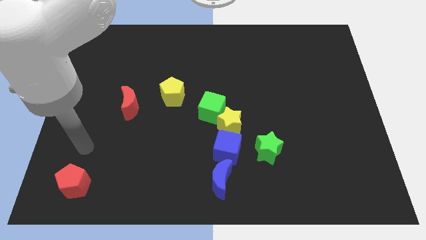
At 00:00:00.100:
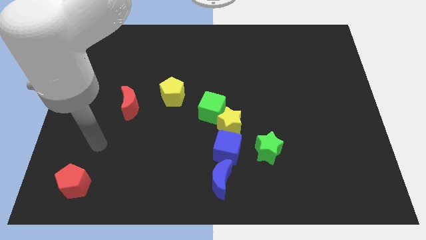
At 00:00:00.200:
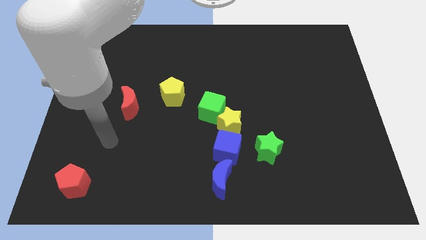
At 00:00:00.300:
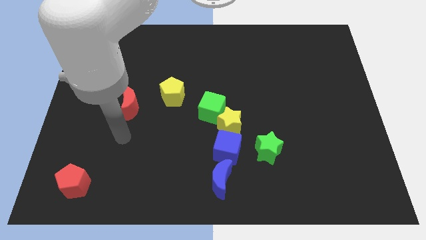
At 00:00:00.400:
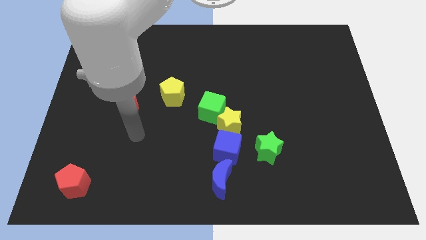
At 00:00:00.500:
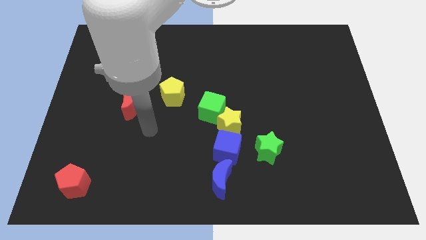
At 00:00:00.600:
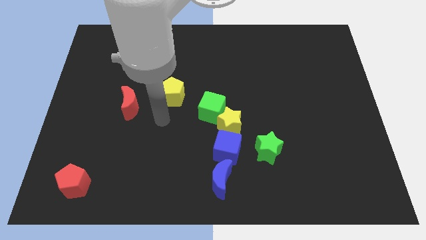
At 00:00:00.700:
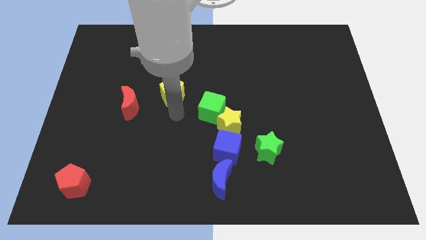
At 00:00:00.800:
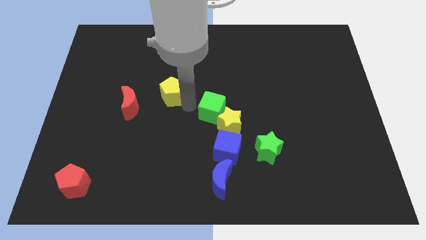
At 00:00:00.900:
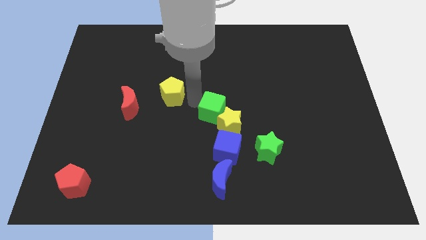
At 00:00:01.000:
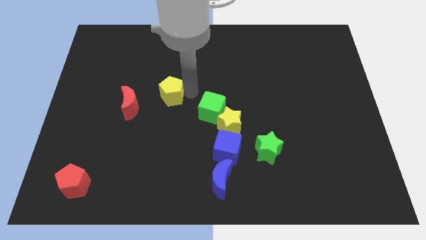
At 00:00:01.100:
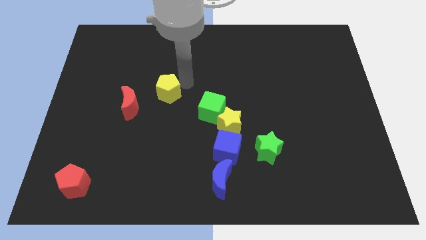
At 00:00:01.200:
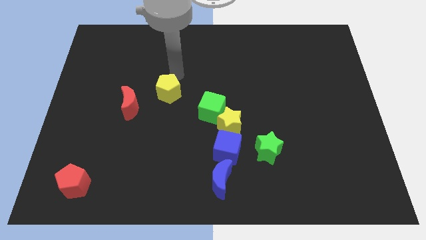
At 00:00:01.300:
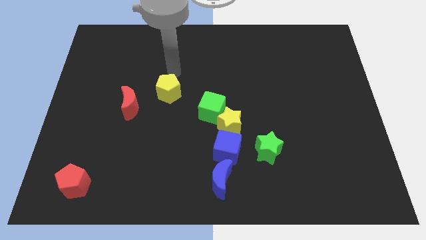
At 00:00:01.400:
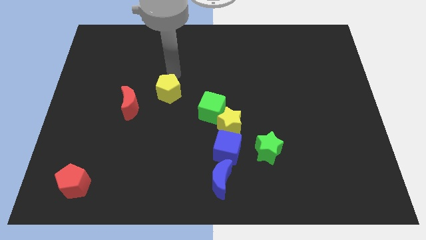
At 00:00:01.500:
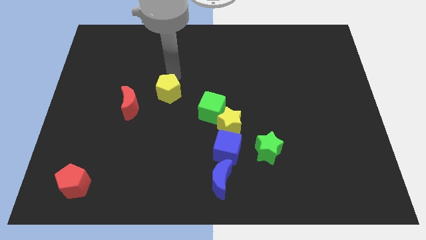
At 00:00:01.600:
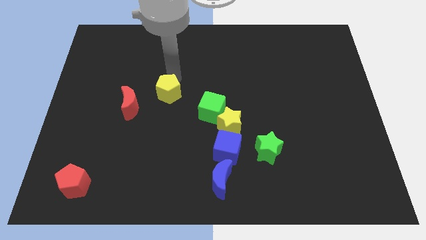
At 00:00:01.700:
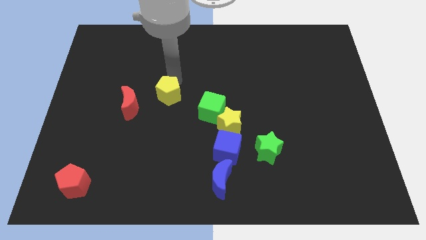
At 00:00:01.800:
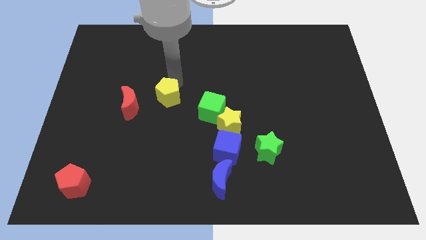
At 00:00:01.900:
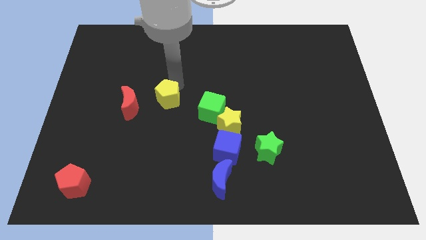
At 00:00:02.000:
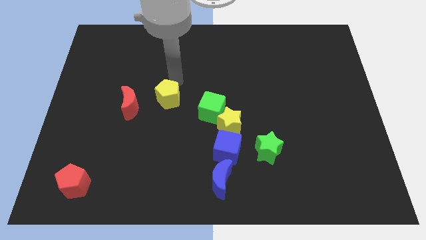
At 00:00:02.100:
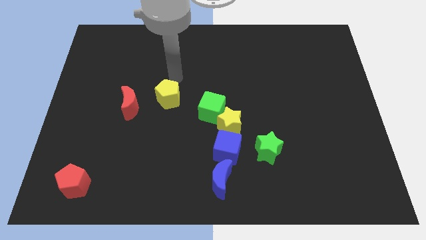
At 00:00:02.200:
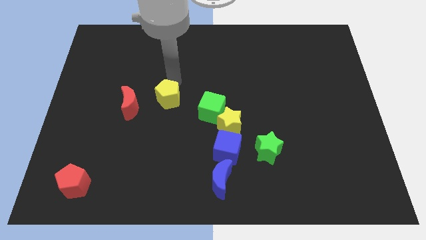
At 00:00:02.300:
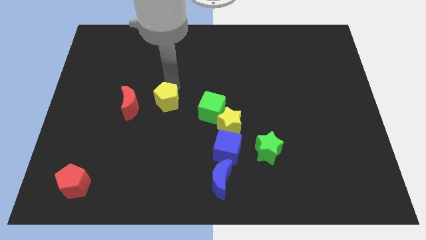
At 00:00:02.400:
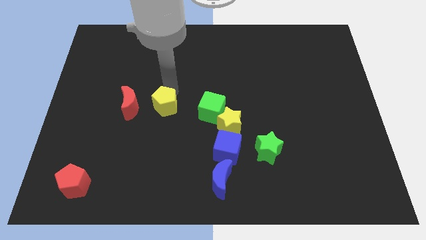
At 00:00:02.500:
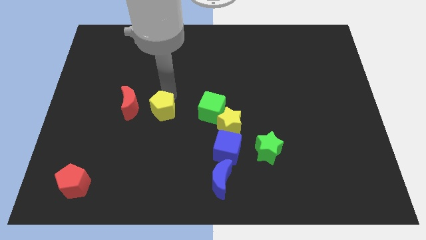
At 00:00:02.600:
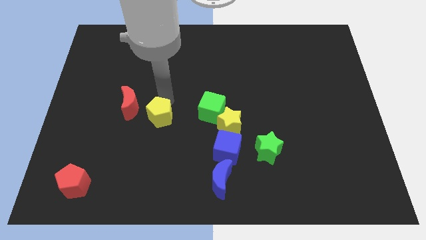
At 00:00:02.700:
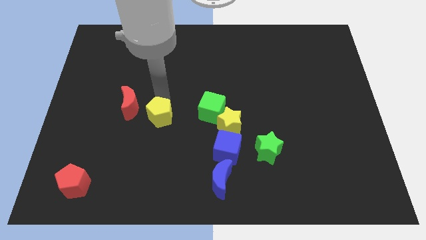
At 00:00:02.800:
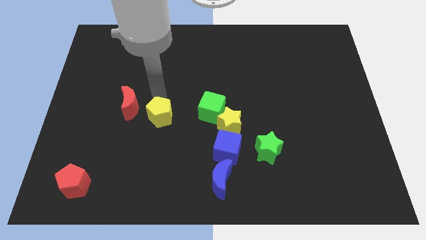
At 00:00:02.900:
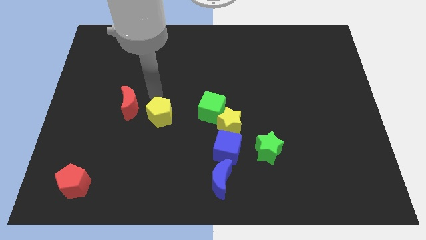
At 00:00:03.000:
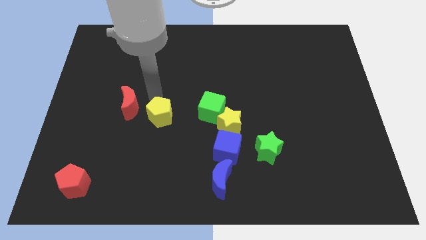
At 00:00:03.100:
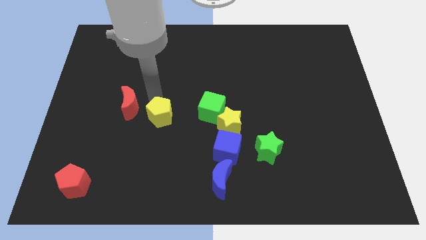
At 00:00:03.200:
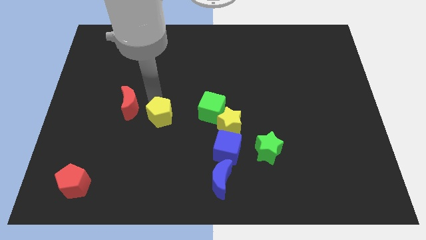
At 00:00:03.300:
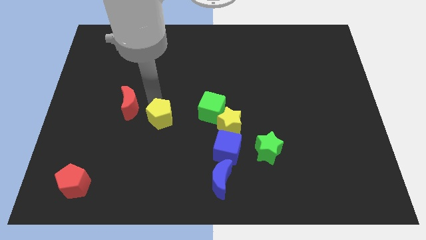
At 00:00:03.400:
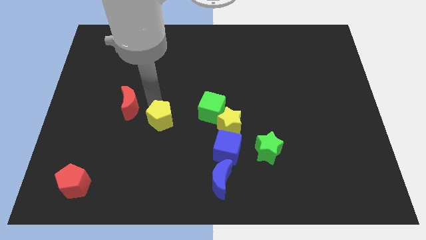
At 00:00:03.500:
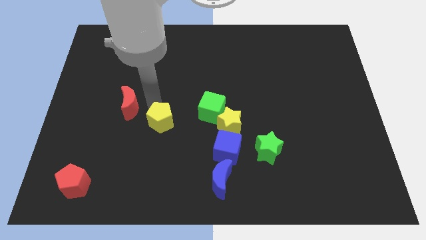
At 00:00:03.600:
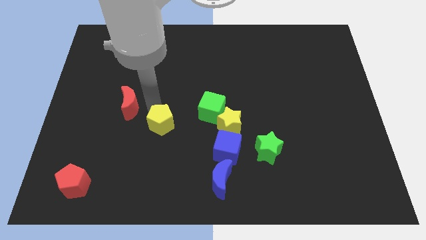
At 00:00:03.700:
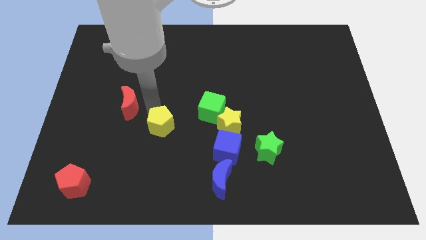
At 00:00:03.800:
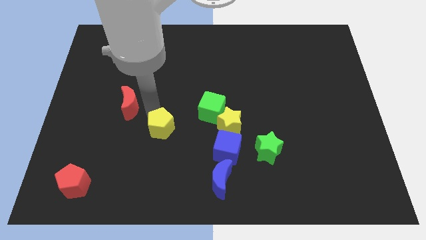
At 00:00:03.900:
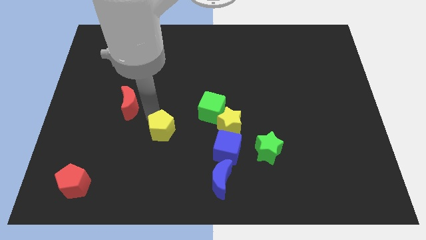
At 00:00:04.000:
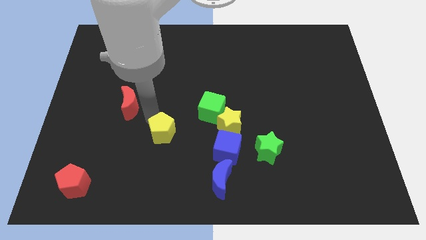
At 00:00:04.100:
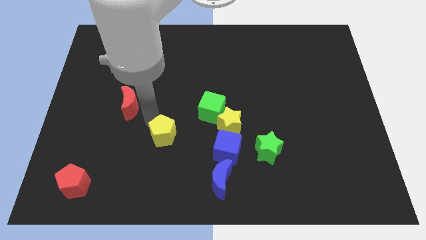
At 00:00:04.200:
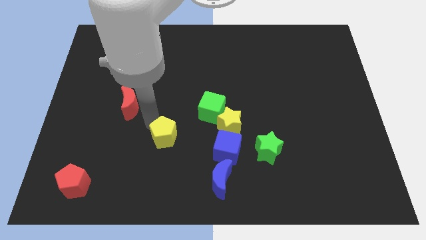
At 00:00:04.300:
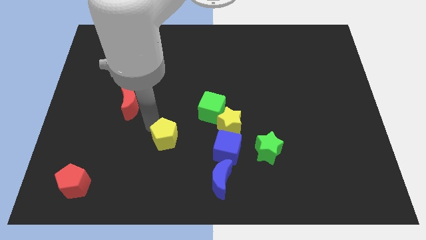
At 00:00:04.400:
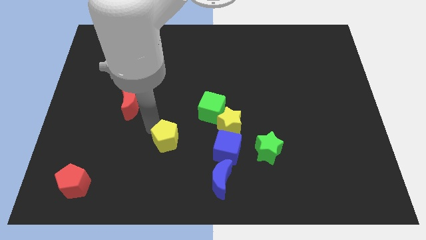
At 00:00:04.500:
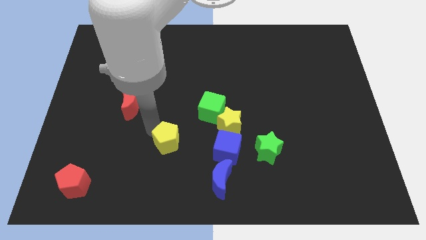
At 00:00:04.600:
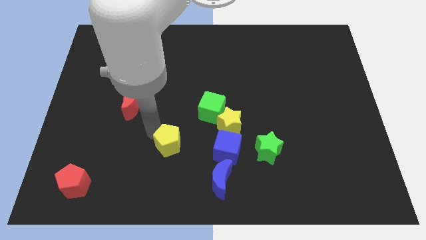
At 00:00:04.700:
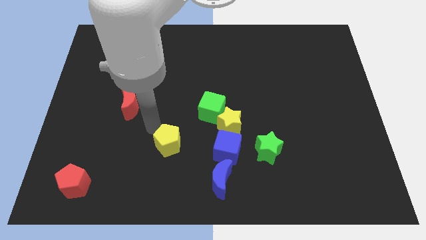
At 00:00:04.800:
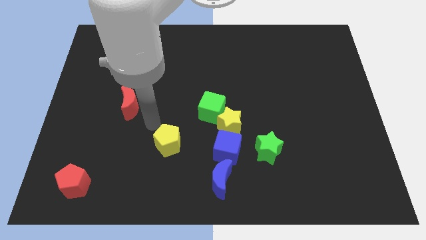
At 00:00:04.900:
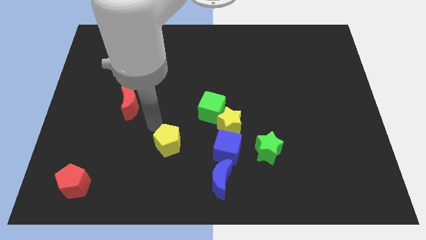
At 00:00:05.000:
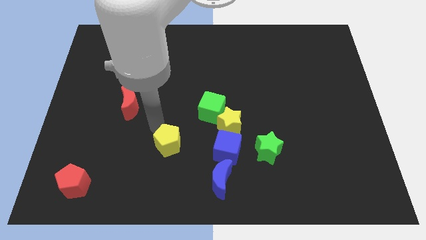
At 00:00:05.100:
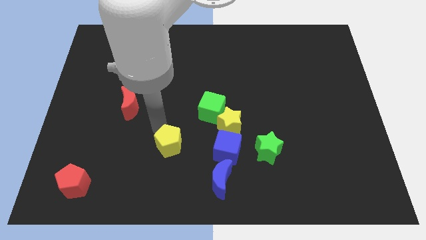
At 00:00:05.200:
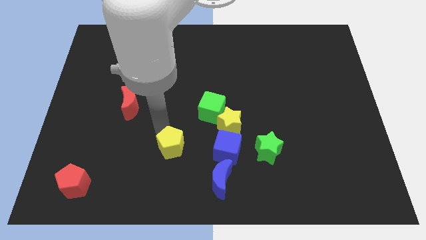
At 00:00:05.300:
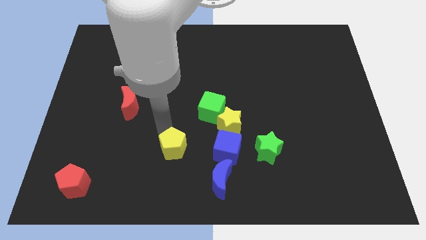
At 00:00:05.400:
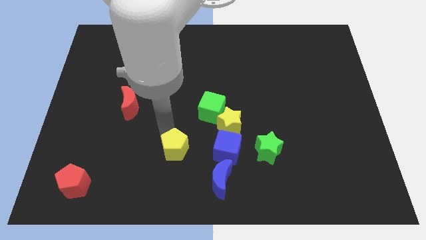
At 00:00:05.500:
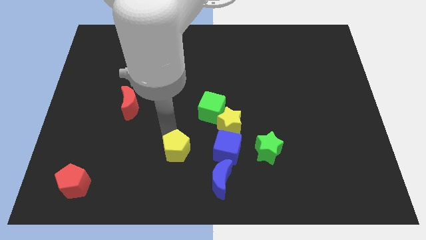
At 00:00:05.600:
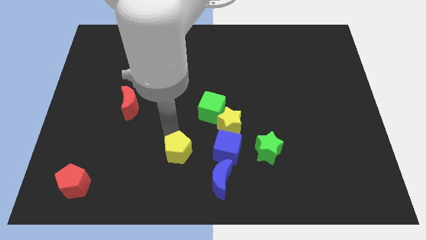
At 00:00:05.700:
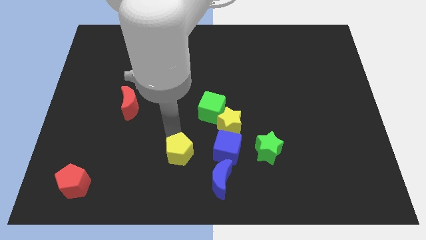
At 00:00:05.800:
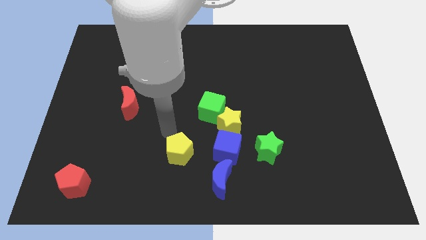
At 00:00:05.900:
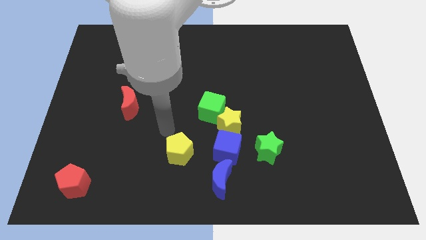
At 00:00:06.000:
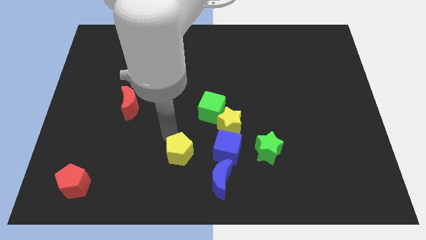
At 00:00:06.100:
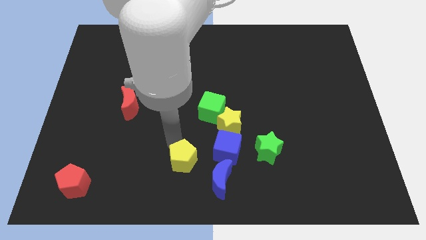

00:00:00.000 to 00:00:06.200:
slide the yellow pentagon to the bottom
